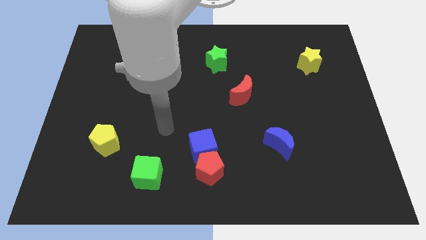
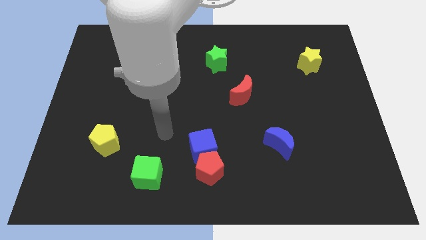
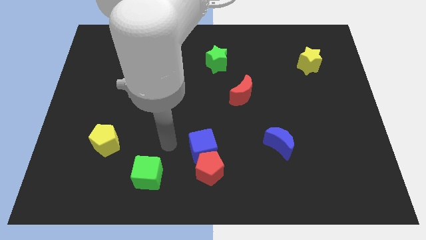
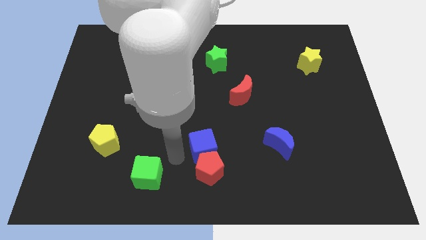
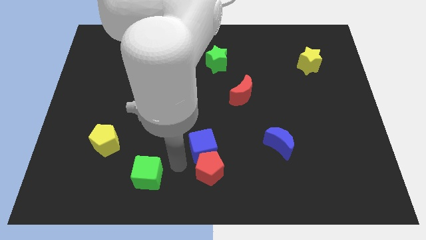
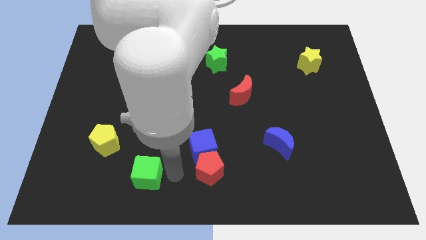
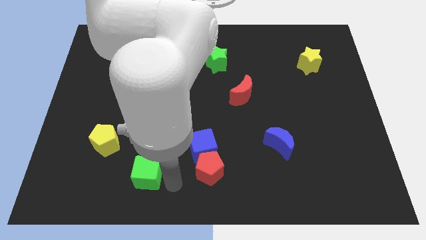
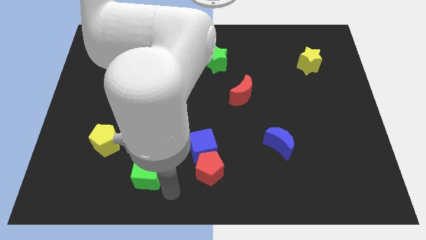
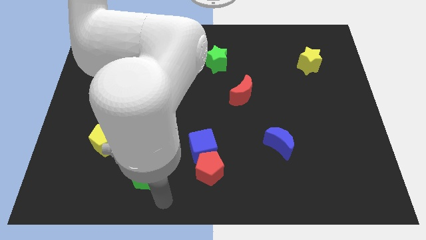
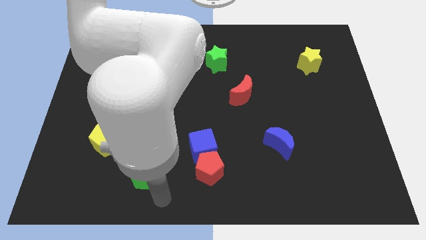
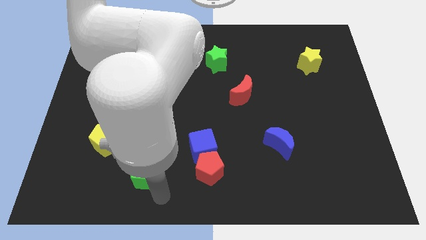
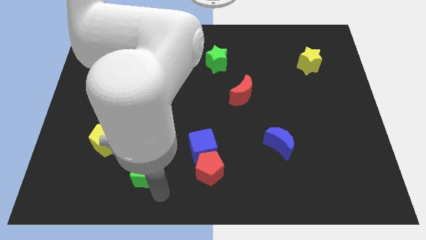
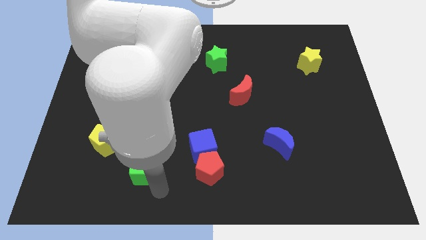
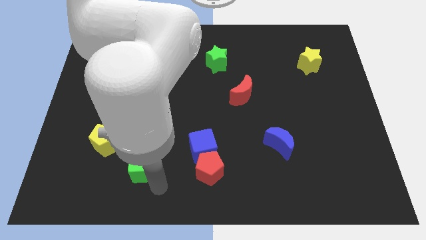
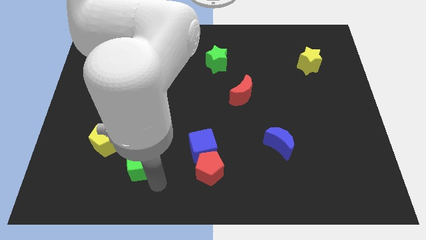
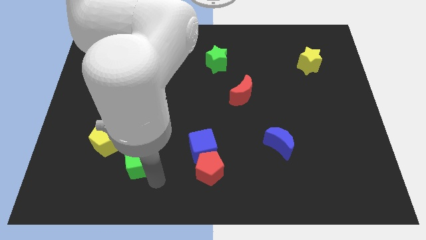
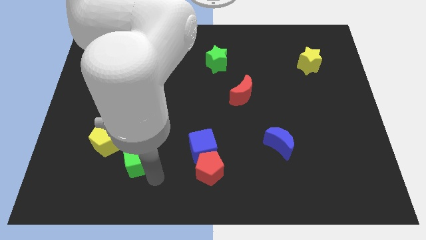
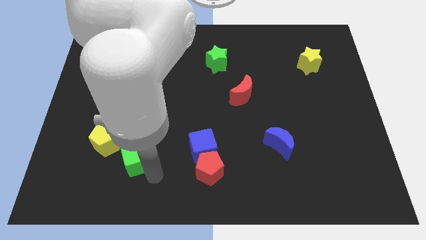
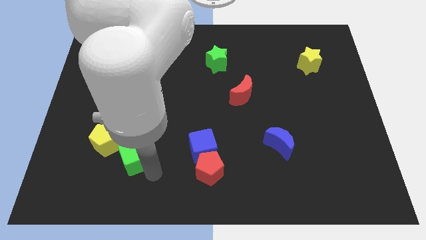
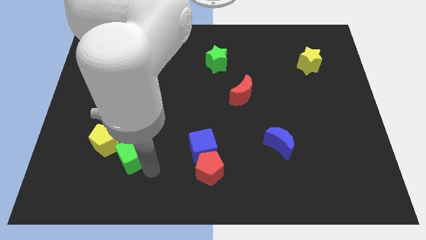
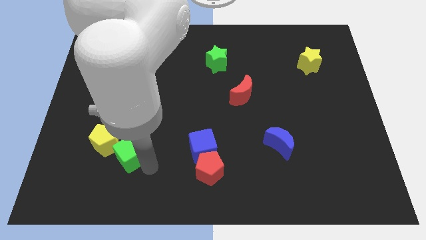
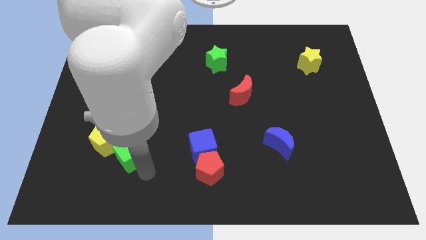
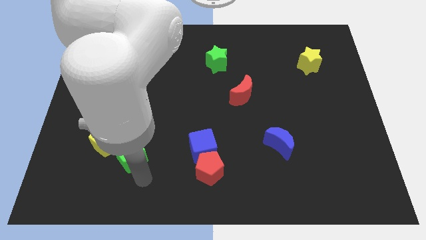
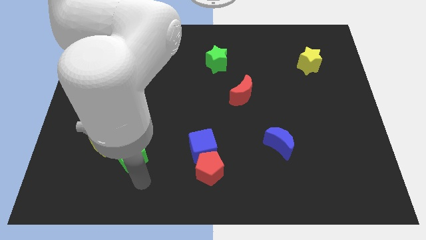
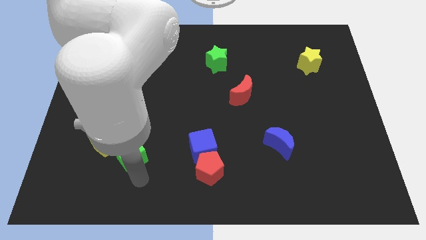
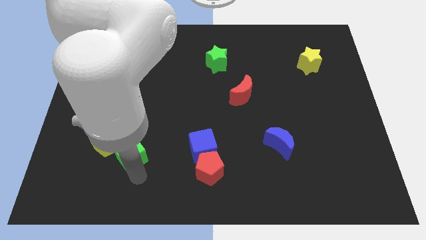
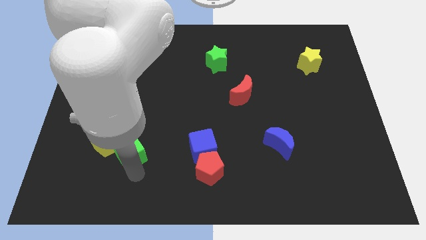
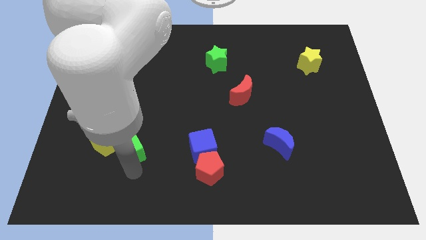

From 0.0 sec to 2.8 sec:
slide the green cube up and left diagonally somewhat

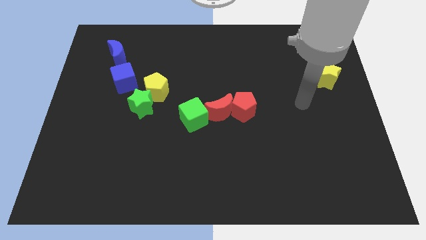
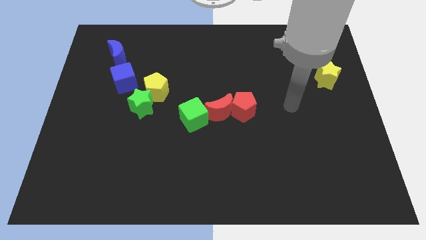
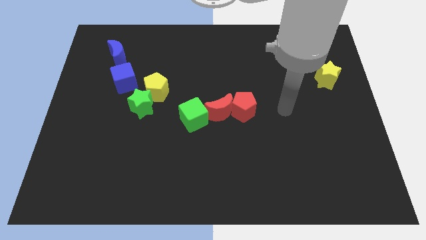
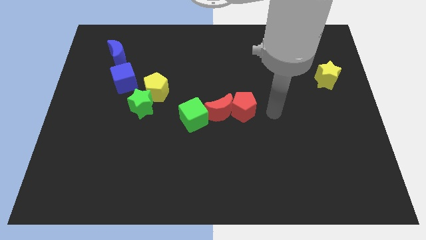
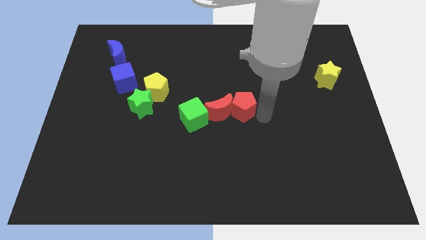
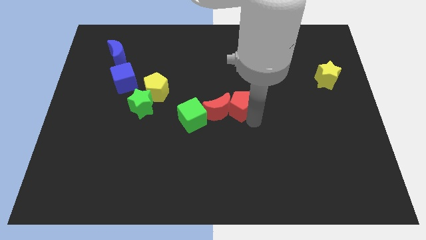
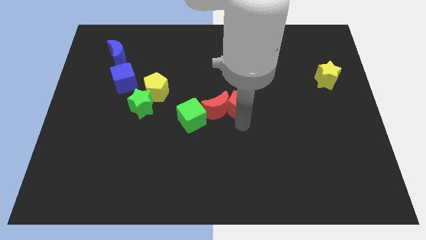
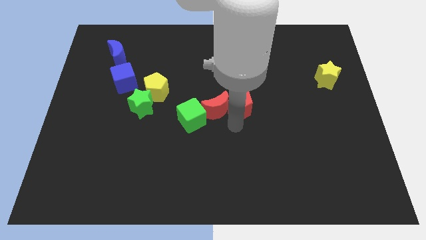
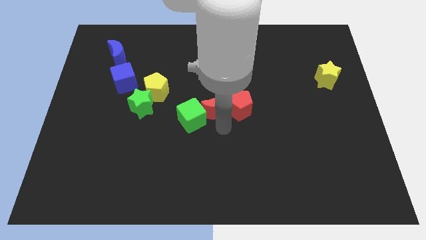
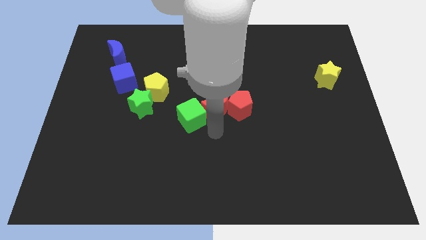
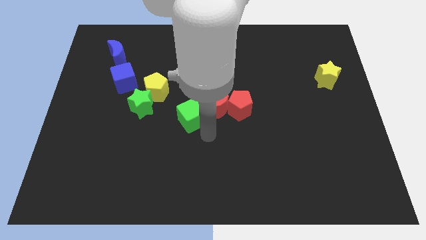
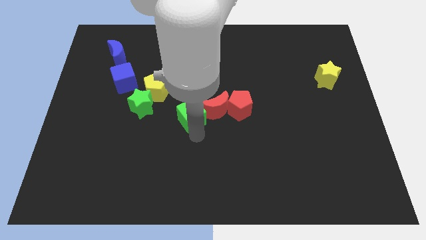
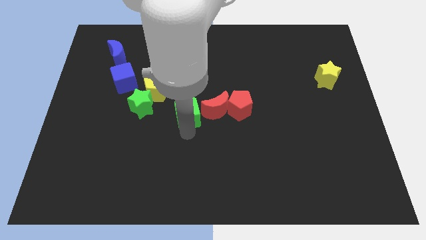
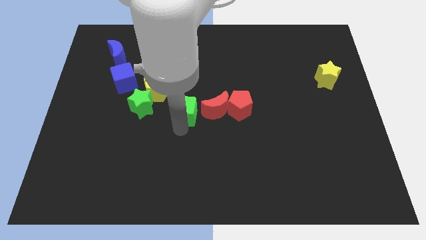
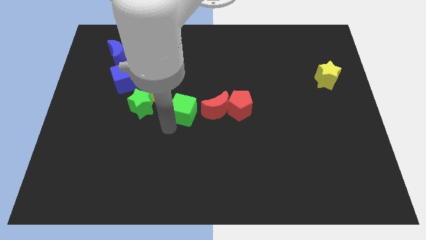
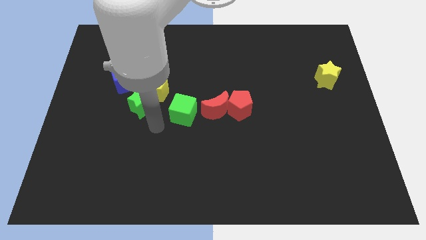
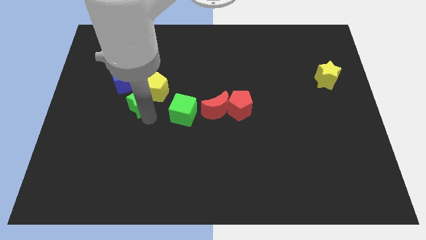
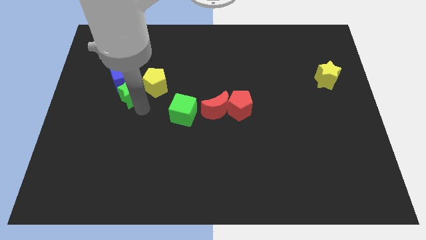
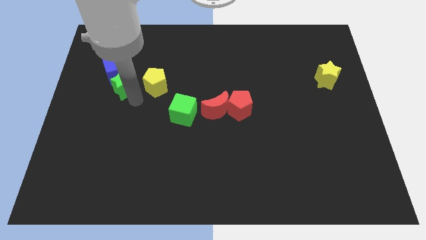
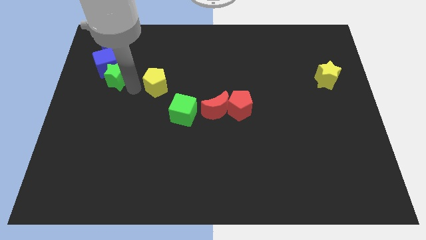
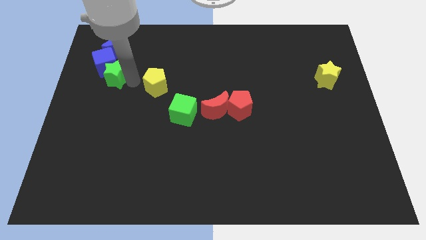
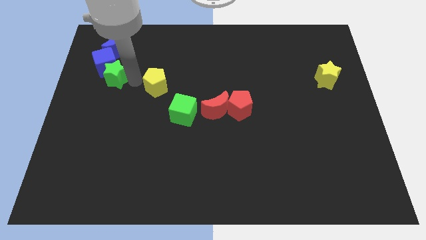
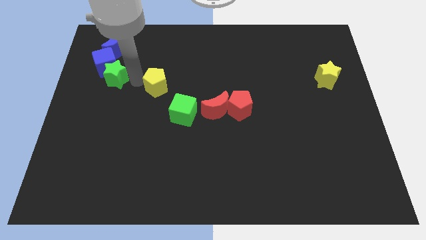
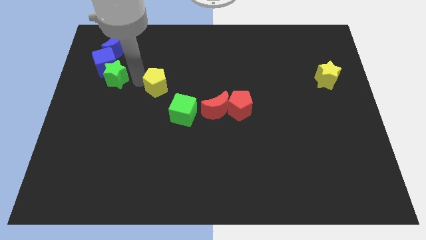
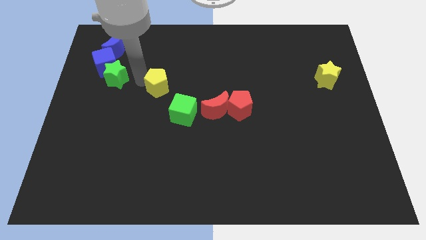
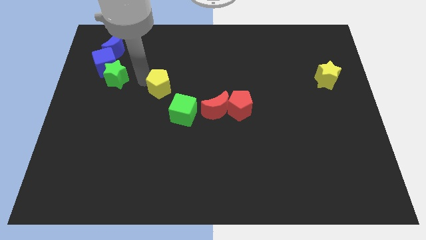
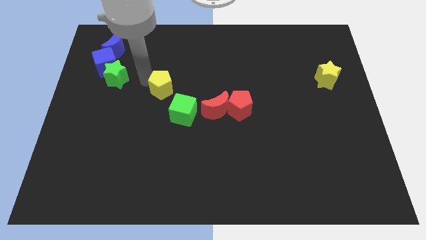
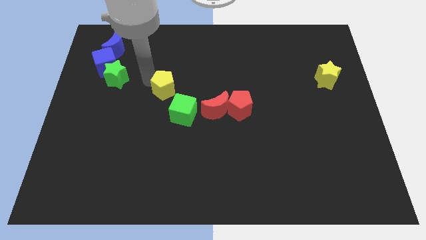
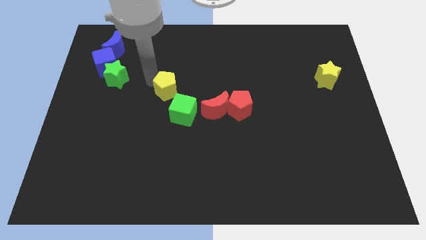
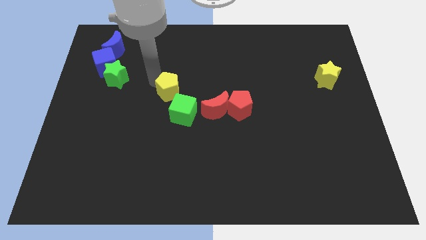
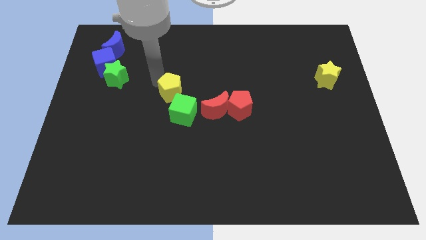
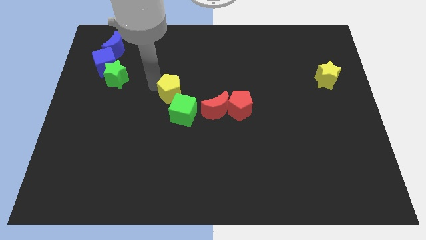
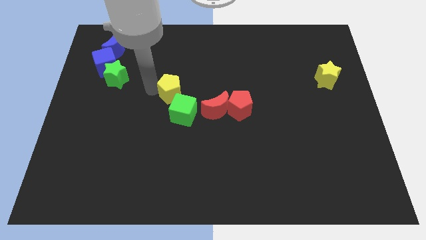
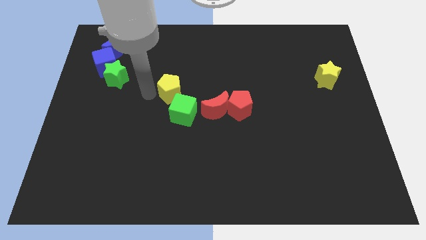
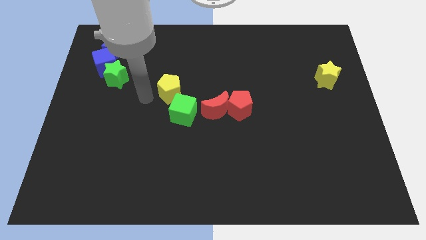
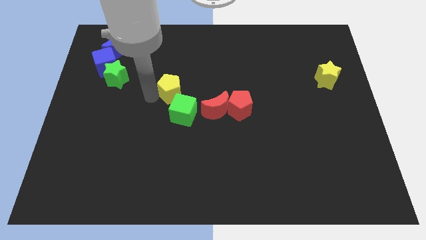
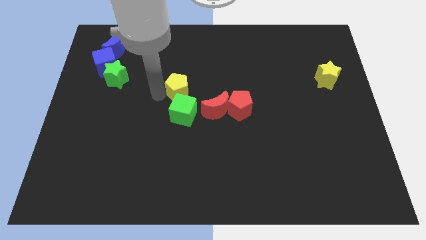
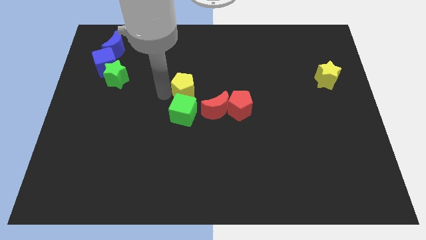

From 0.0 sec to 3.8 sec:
slide the yellow pentagon a bit to the right

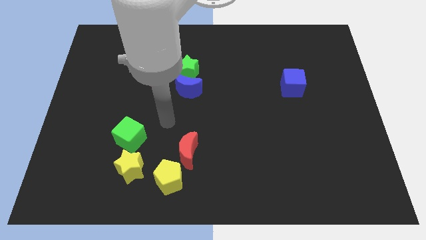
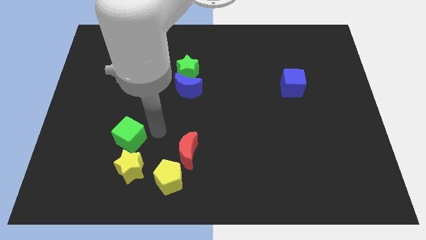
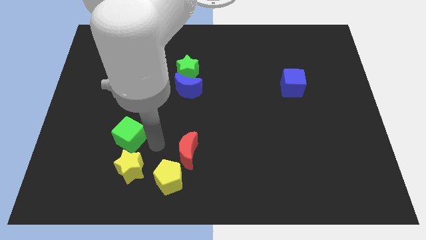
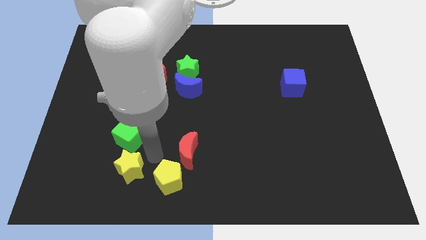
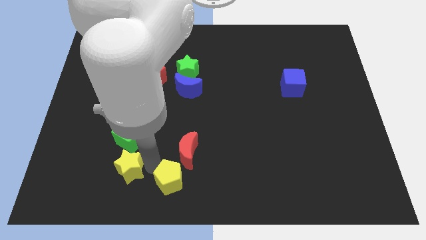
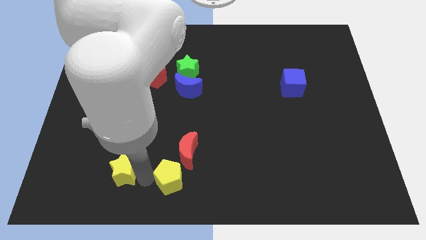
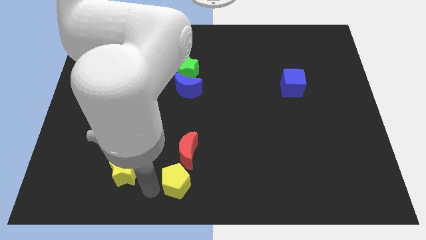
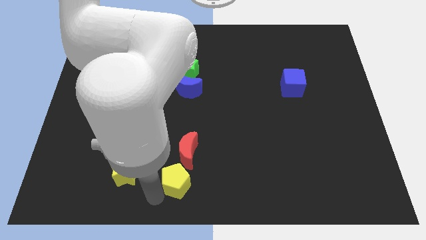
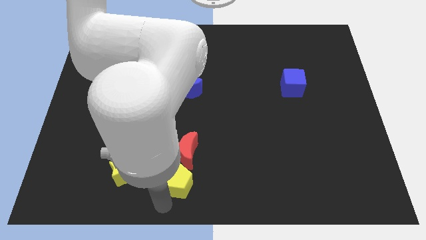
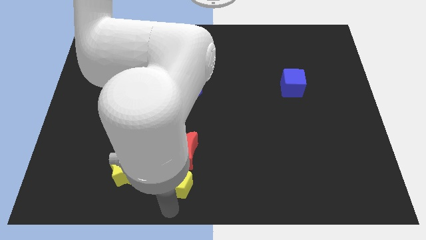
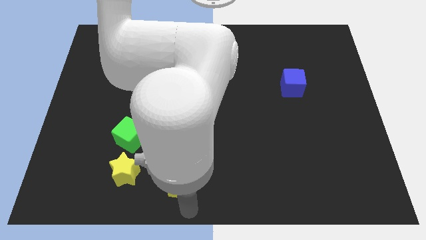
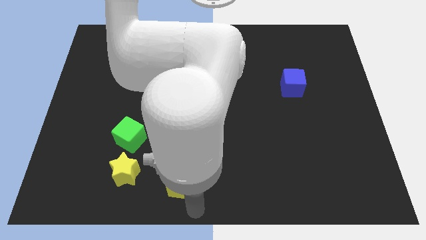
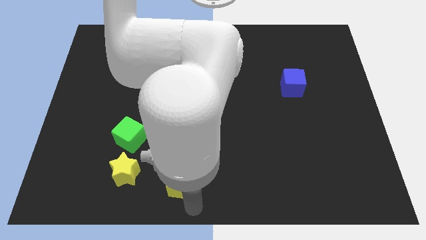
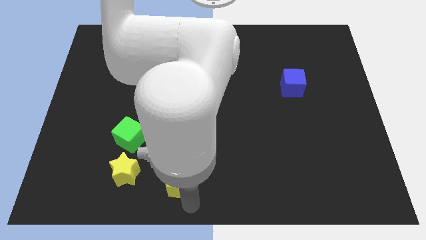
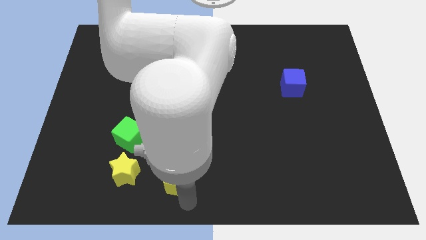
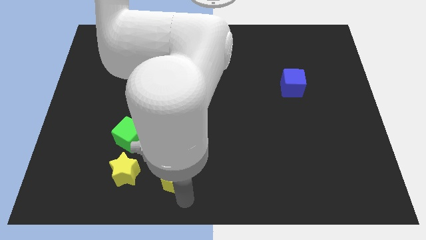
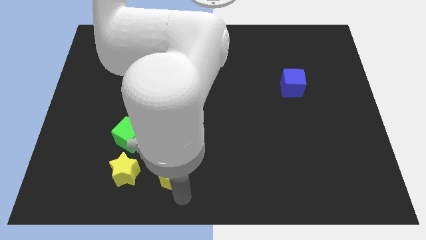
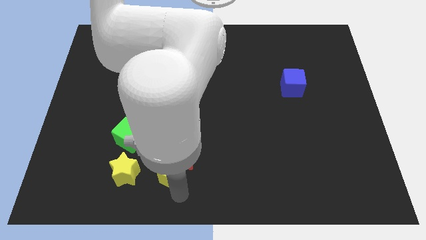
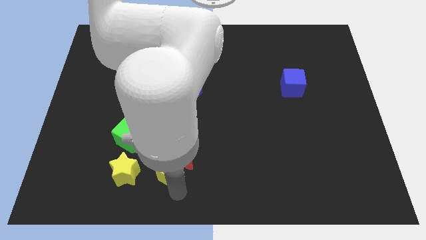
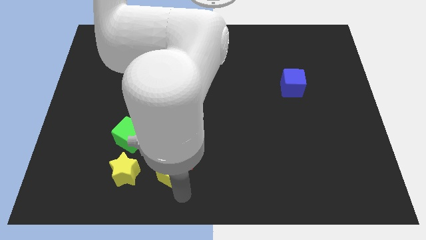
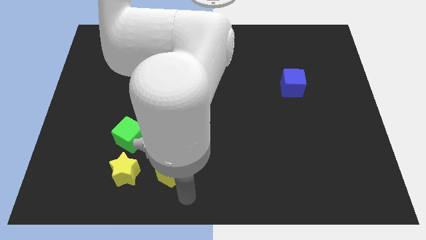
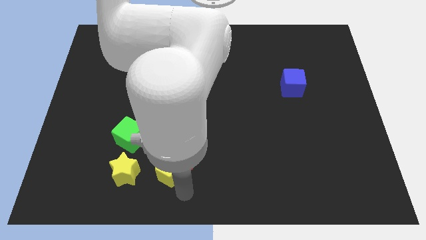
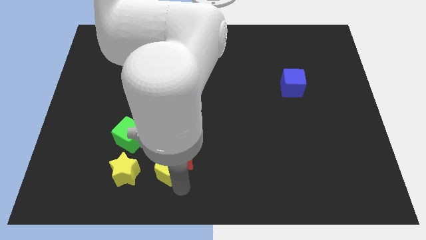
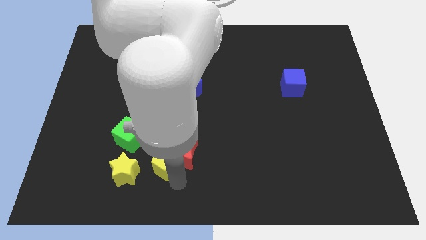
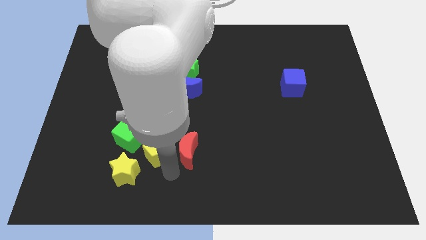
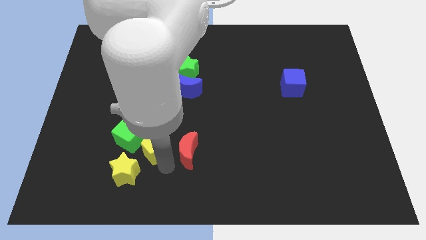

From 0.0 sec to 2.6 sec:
move the yellow pentagon a bit up and left
